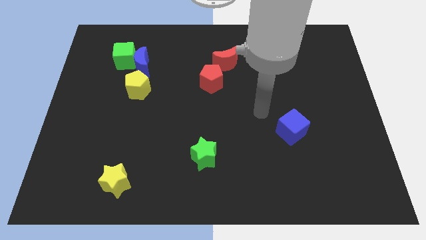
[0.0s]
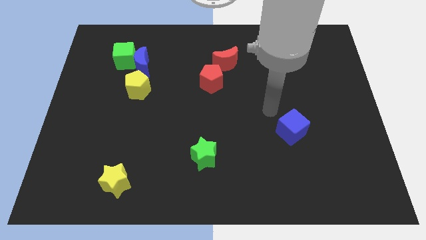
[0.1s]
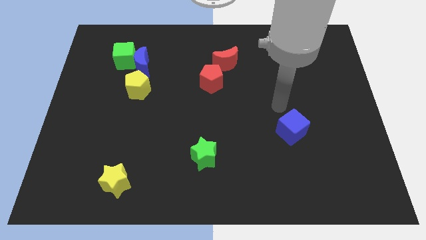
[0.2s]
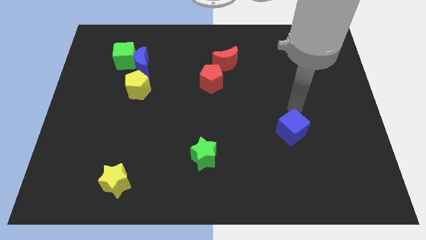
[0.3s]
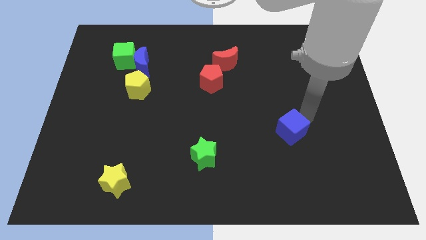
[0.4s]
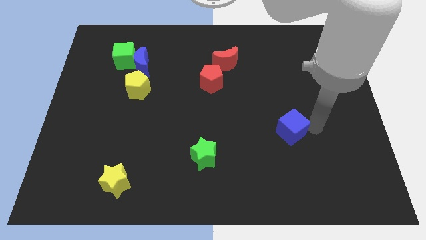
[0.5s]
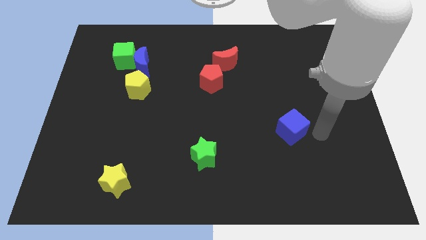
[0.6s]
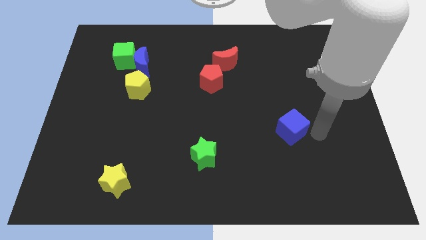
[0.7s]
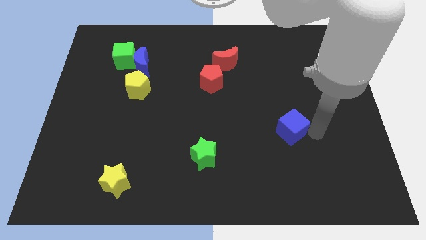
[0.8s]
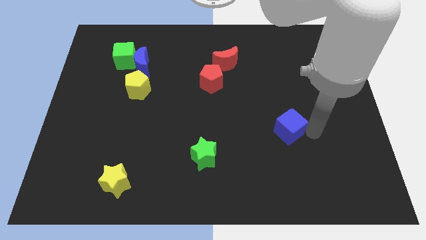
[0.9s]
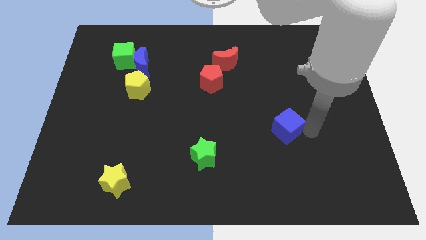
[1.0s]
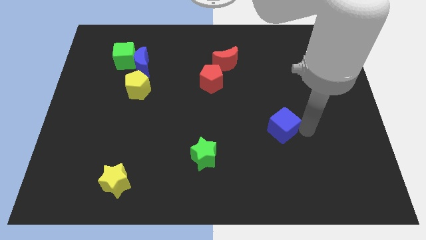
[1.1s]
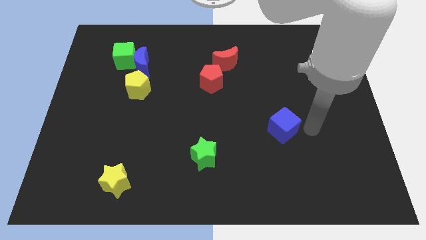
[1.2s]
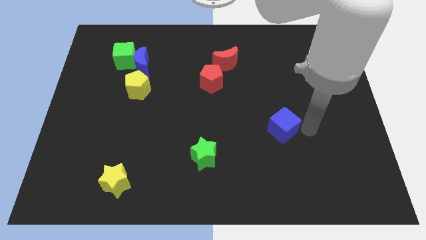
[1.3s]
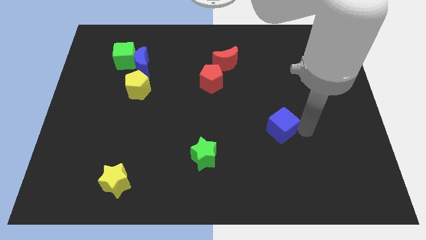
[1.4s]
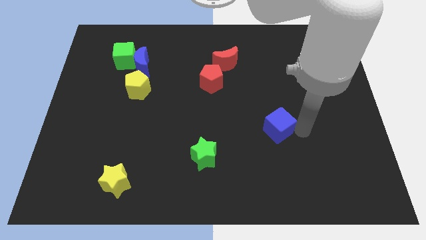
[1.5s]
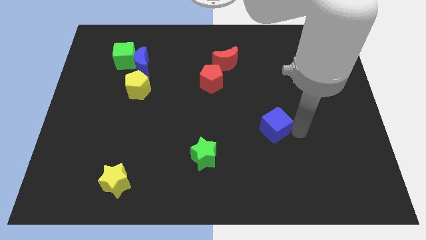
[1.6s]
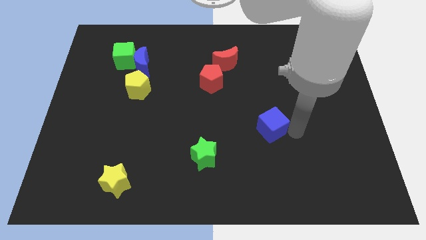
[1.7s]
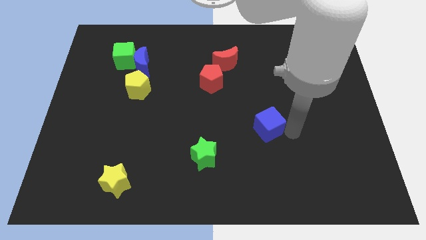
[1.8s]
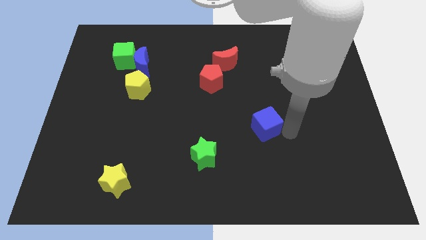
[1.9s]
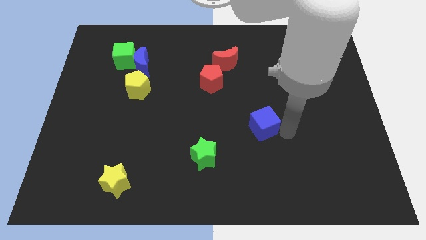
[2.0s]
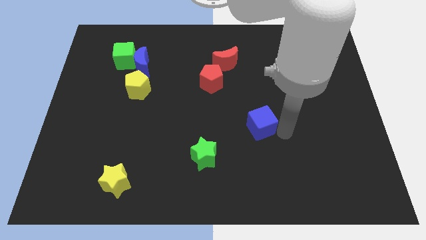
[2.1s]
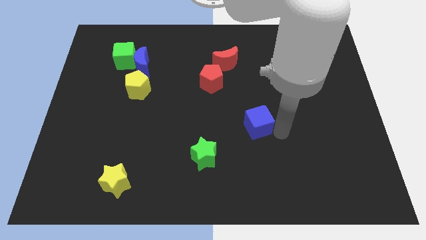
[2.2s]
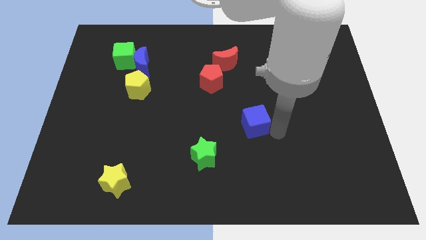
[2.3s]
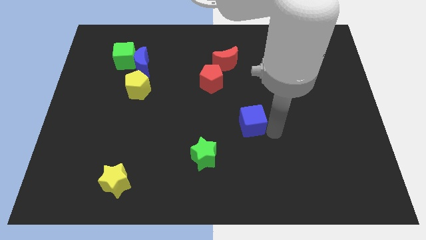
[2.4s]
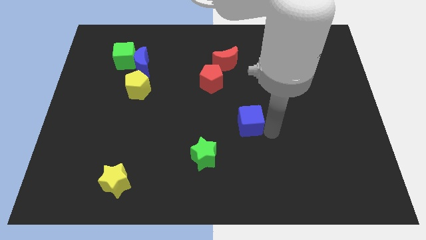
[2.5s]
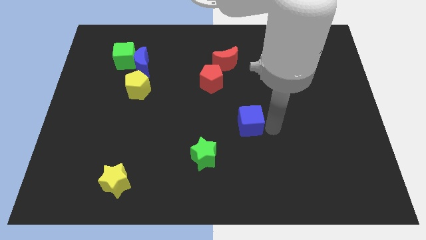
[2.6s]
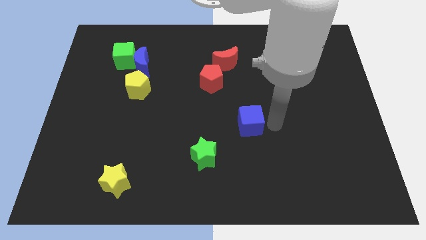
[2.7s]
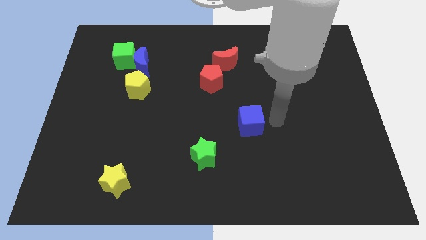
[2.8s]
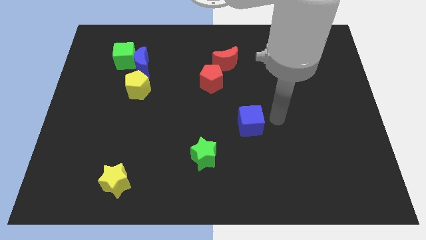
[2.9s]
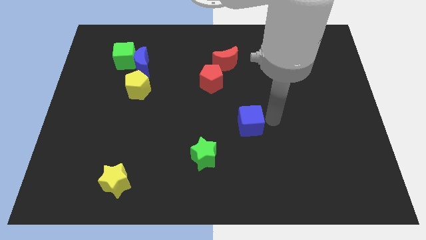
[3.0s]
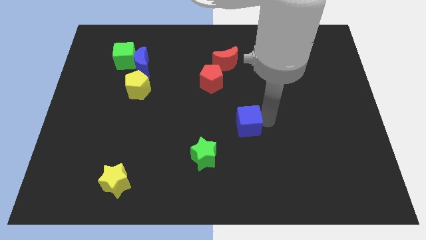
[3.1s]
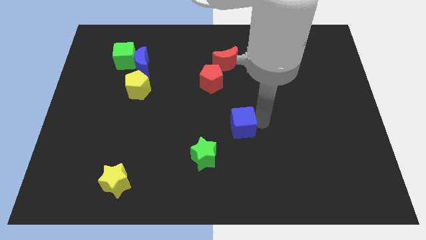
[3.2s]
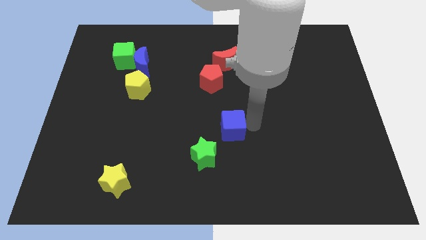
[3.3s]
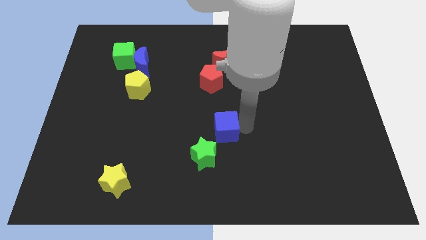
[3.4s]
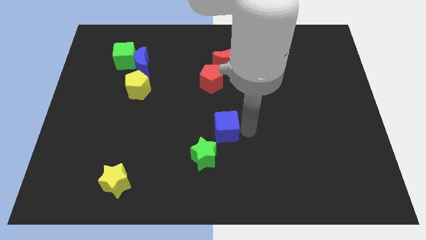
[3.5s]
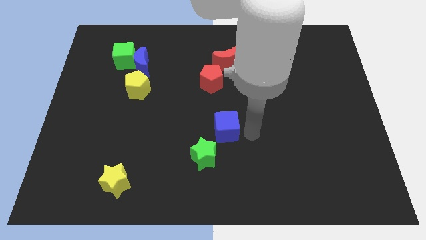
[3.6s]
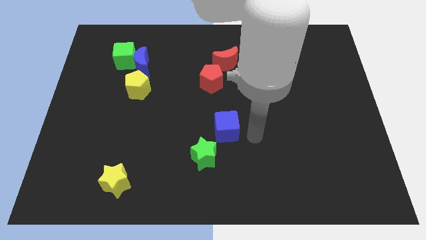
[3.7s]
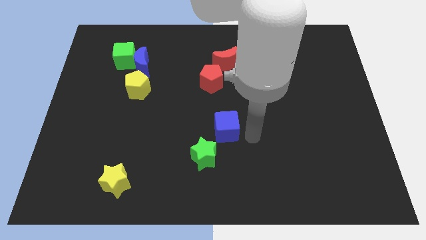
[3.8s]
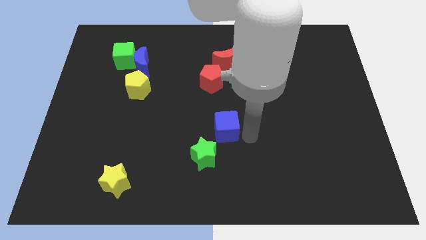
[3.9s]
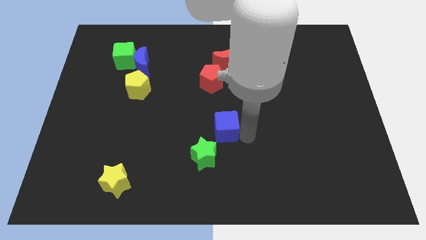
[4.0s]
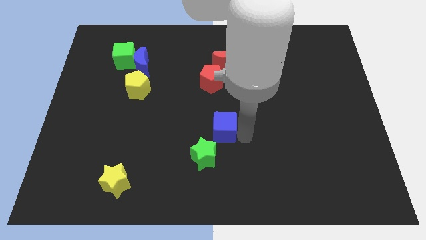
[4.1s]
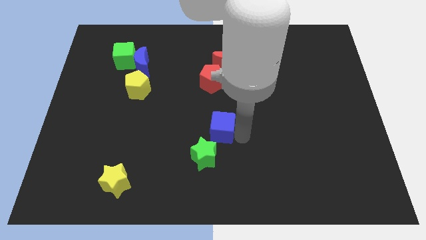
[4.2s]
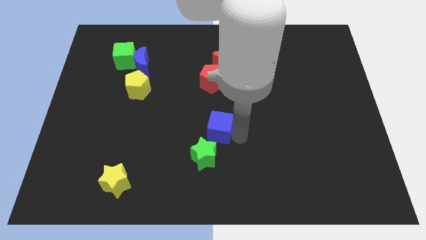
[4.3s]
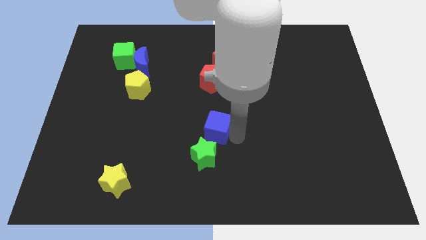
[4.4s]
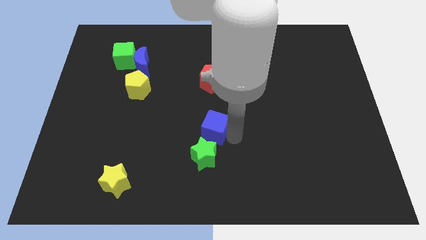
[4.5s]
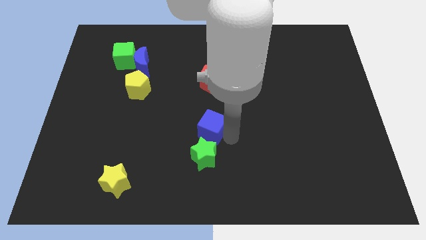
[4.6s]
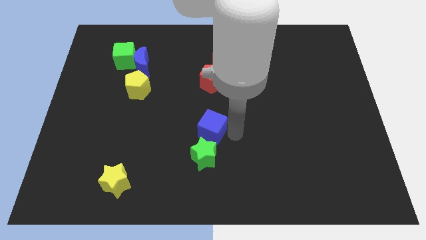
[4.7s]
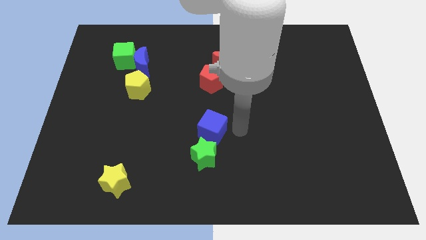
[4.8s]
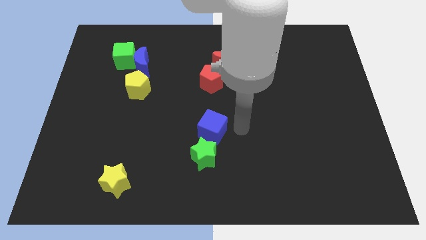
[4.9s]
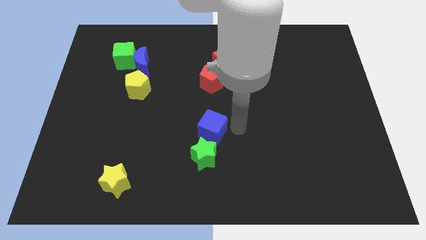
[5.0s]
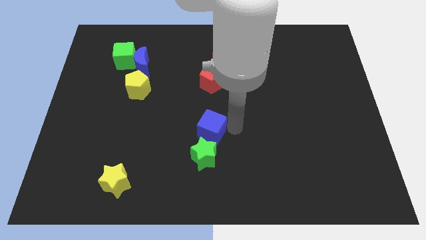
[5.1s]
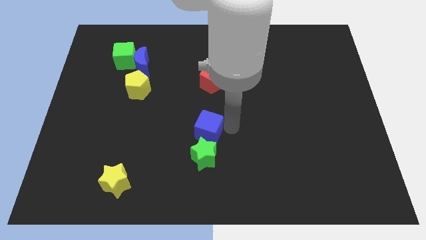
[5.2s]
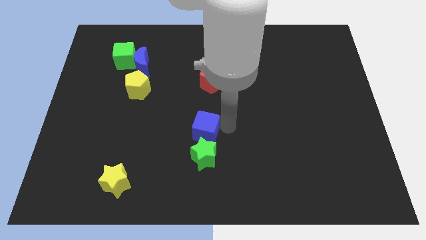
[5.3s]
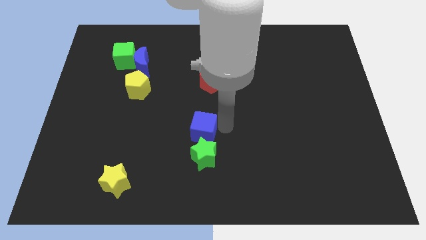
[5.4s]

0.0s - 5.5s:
slide the blue cube to the left

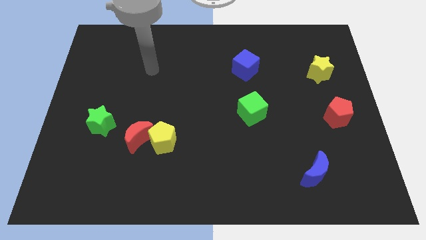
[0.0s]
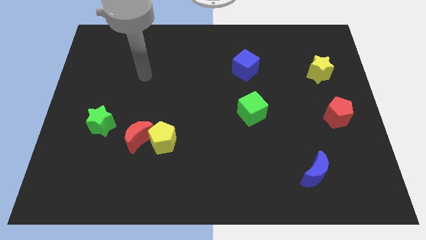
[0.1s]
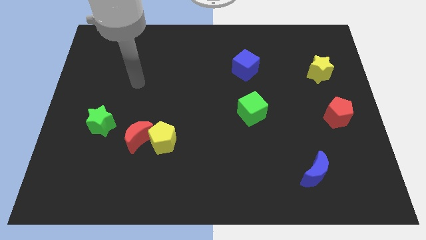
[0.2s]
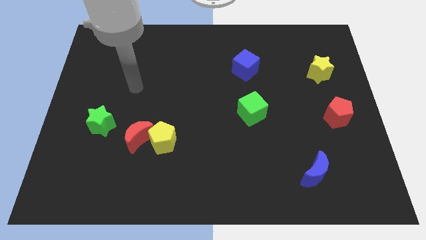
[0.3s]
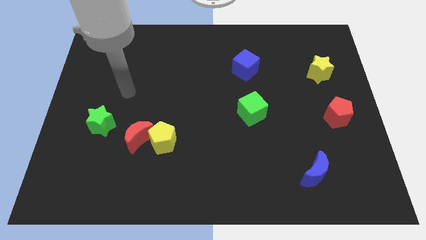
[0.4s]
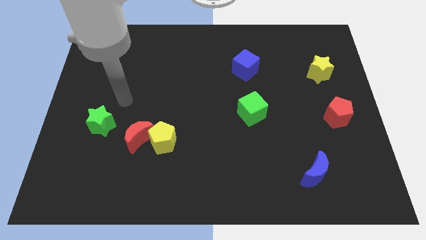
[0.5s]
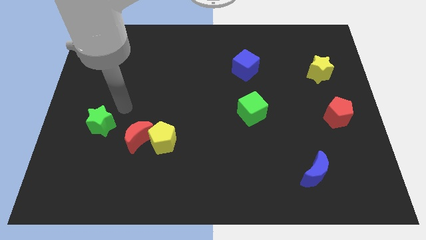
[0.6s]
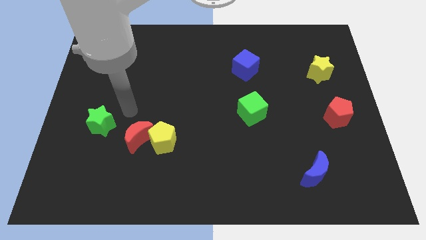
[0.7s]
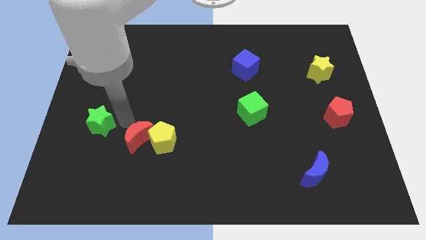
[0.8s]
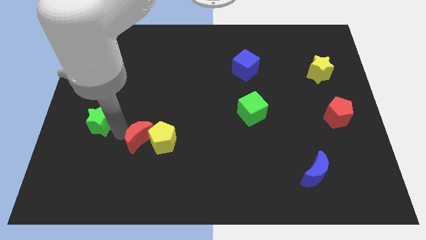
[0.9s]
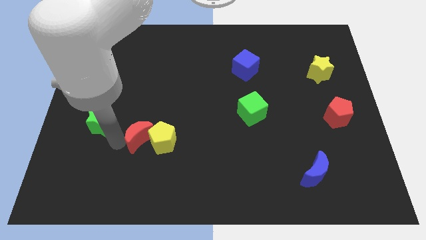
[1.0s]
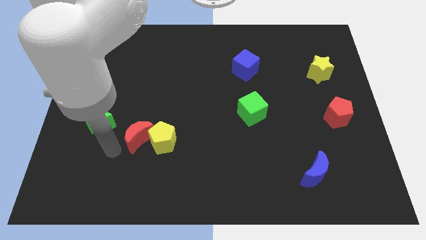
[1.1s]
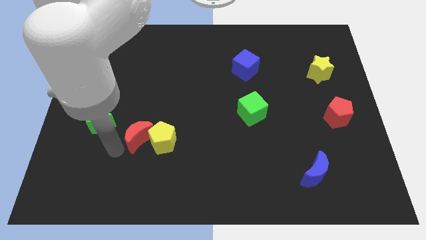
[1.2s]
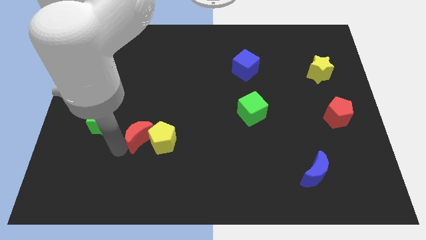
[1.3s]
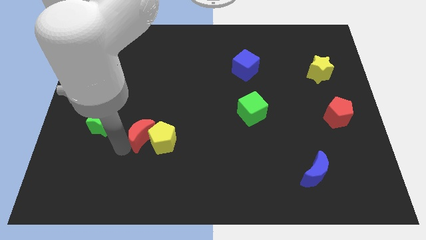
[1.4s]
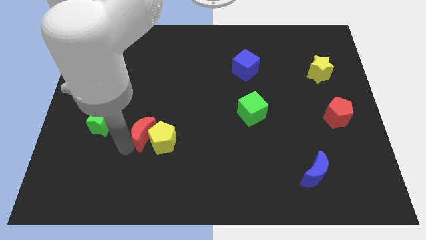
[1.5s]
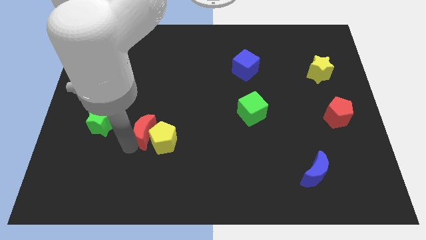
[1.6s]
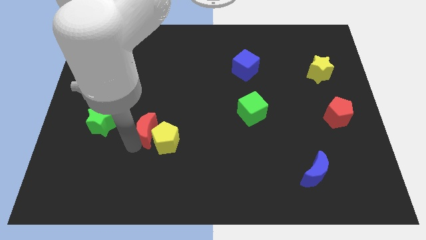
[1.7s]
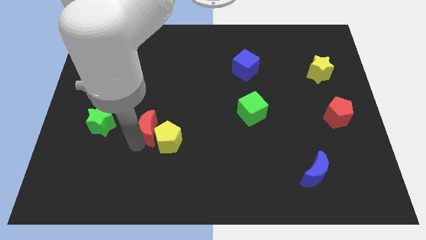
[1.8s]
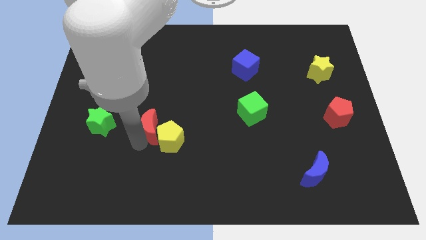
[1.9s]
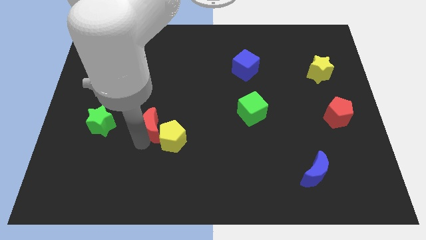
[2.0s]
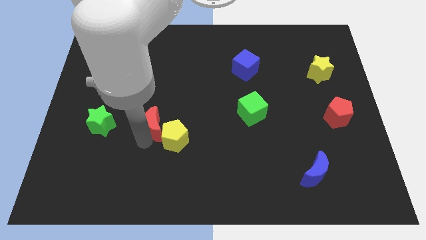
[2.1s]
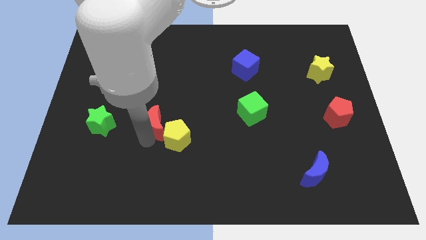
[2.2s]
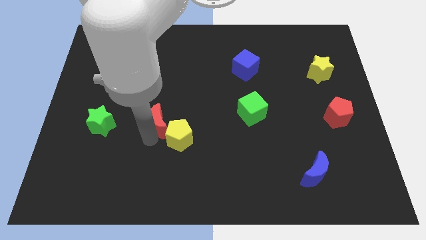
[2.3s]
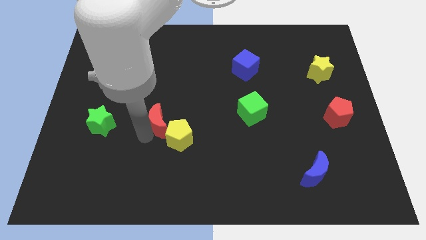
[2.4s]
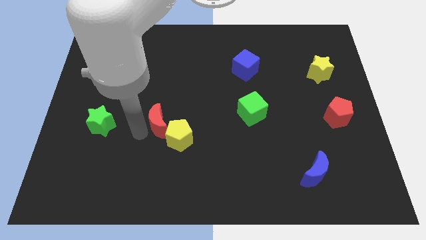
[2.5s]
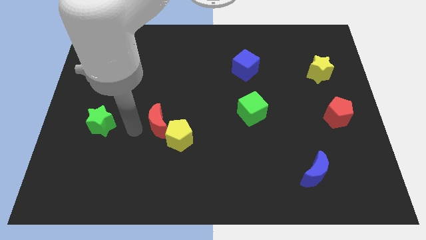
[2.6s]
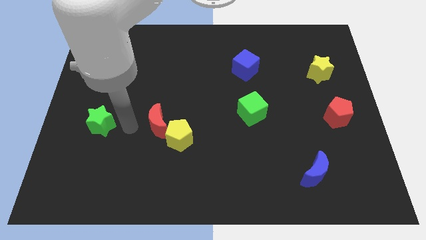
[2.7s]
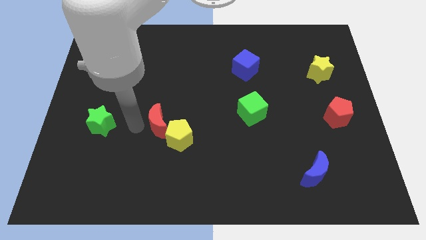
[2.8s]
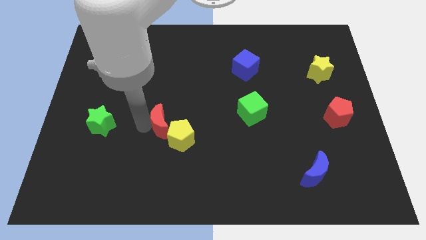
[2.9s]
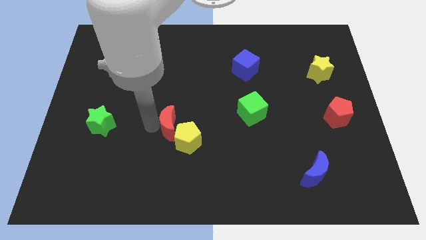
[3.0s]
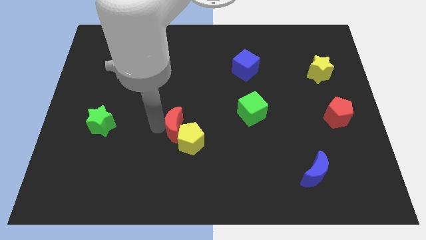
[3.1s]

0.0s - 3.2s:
move the red moon a bit right
